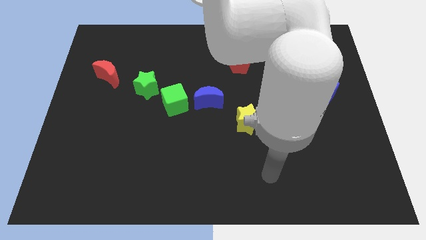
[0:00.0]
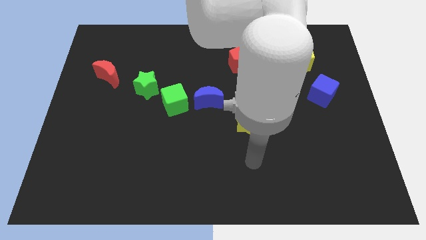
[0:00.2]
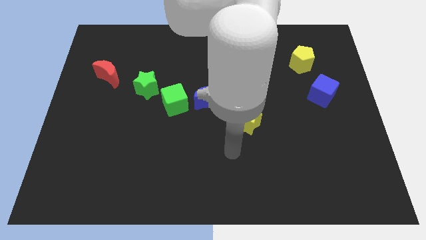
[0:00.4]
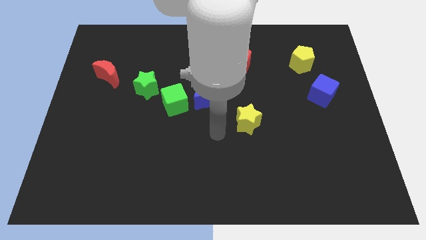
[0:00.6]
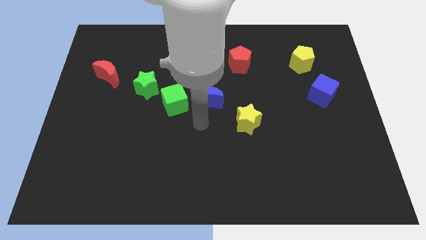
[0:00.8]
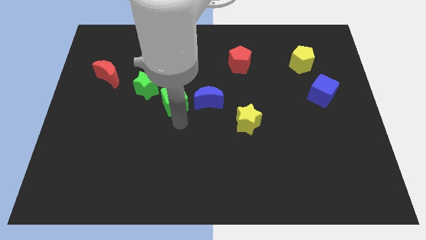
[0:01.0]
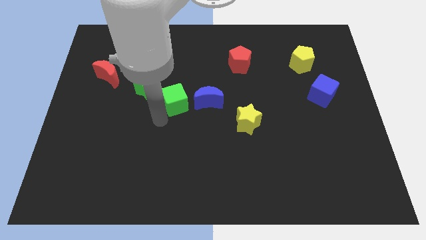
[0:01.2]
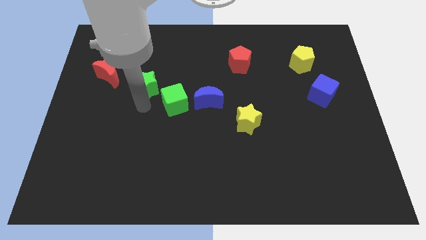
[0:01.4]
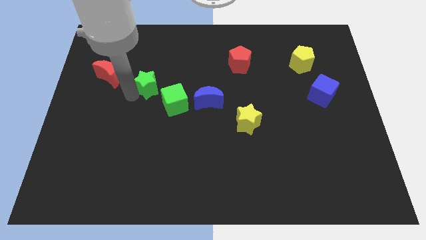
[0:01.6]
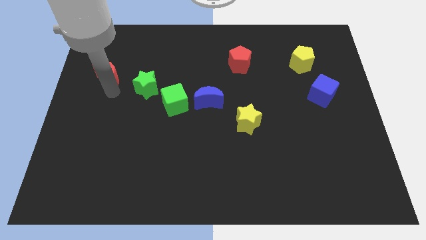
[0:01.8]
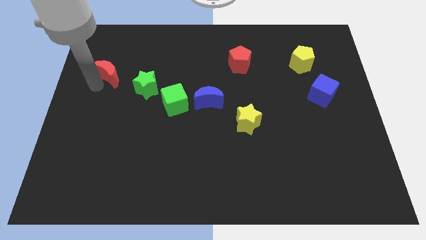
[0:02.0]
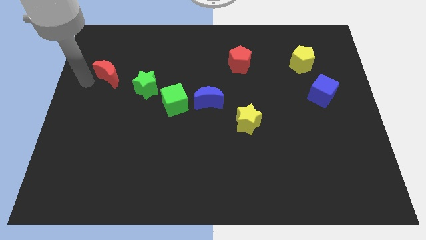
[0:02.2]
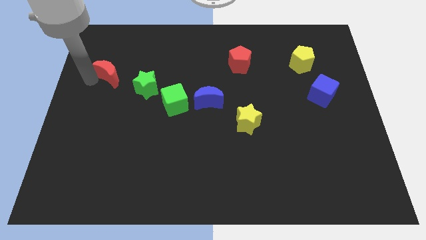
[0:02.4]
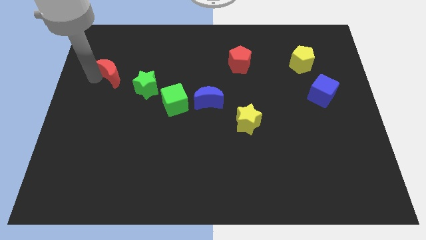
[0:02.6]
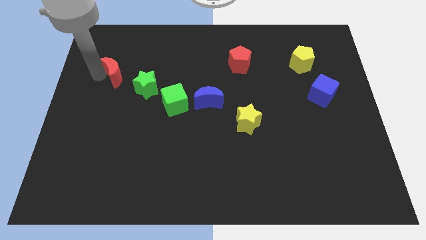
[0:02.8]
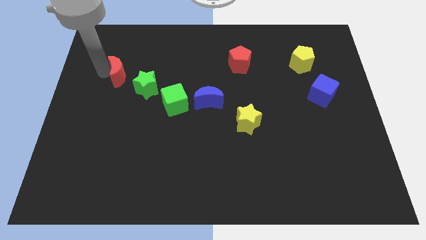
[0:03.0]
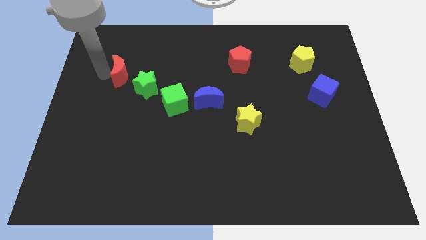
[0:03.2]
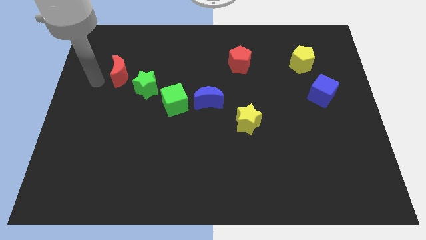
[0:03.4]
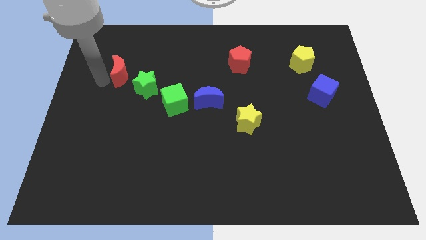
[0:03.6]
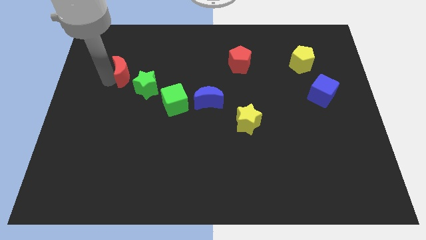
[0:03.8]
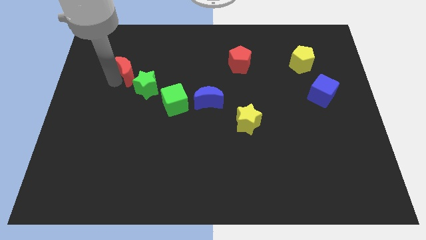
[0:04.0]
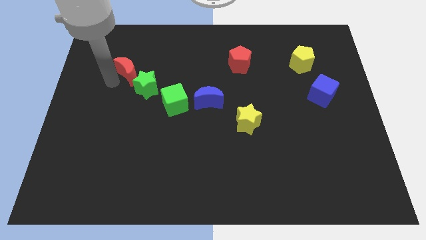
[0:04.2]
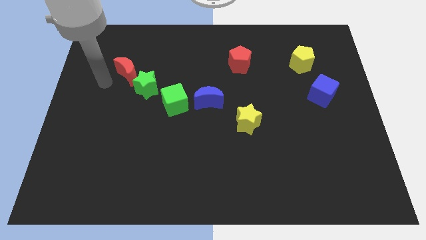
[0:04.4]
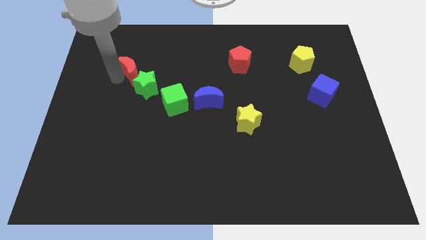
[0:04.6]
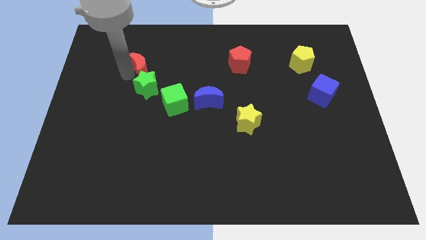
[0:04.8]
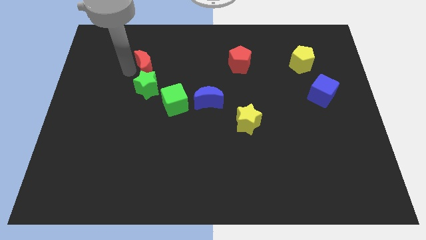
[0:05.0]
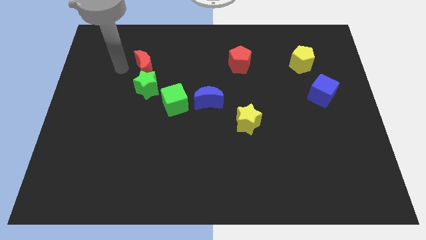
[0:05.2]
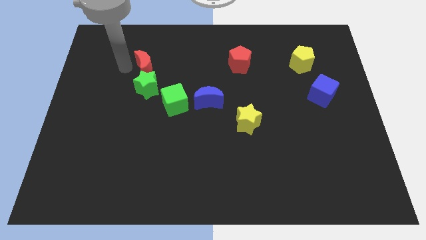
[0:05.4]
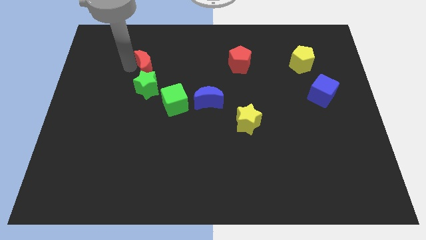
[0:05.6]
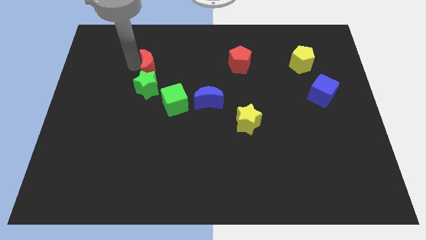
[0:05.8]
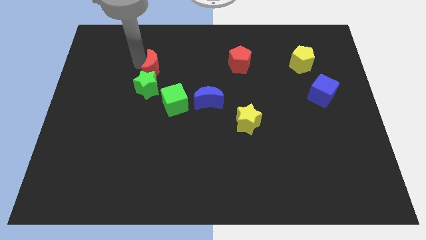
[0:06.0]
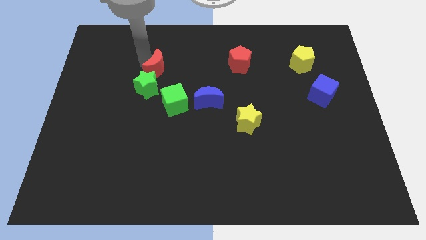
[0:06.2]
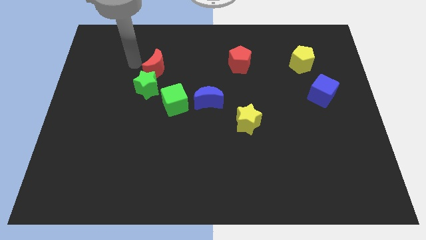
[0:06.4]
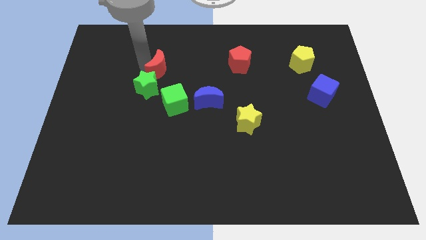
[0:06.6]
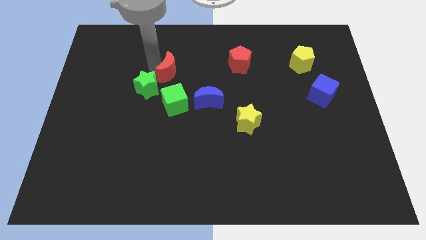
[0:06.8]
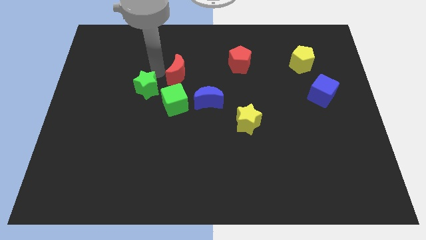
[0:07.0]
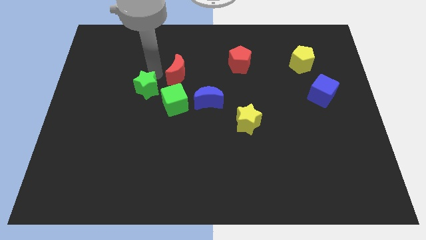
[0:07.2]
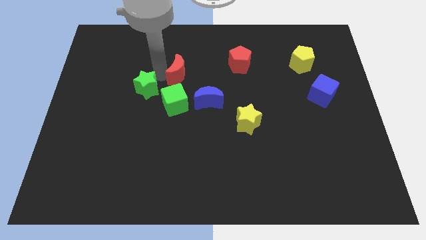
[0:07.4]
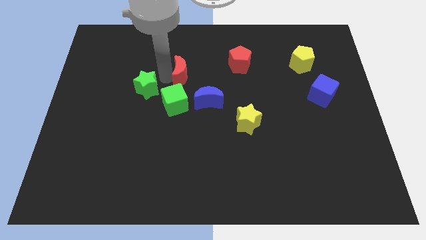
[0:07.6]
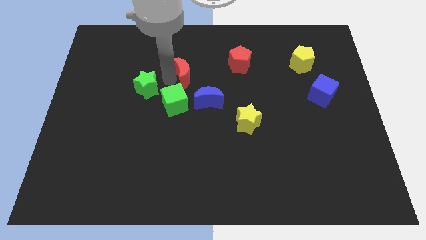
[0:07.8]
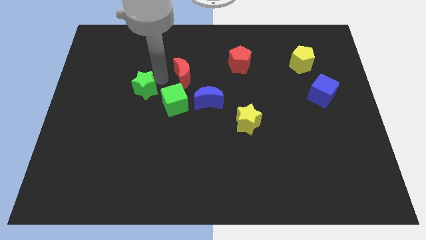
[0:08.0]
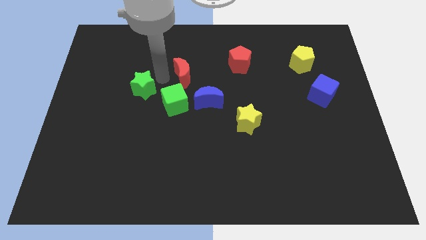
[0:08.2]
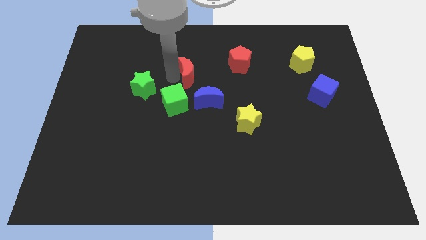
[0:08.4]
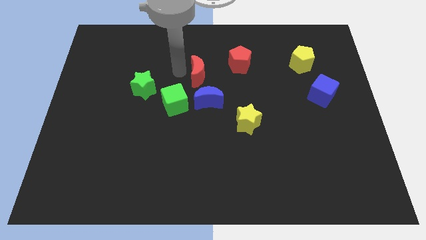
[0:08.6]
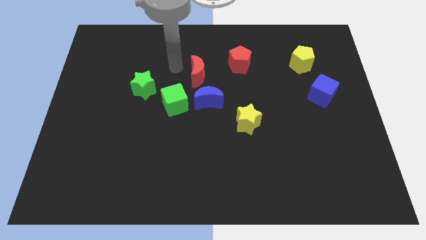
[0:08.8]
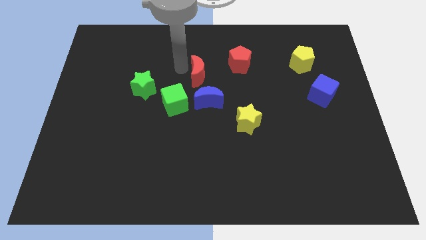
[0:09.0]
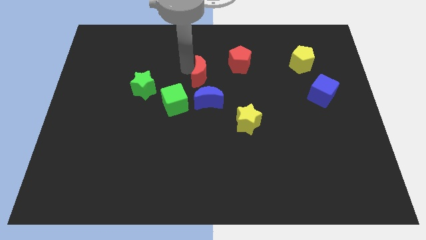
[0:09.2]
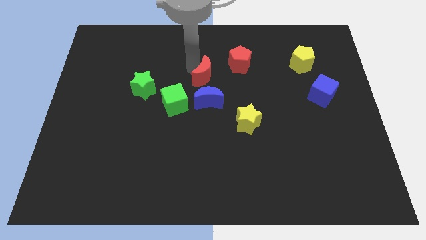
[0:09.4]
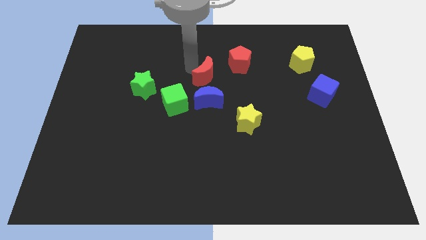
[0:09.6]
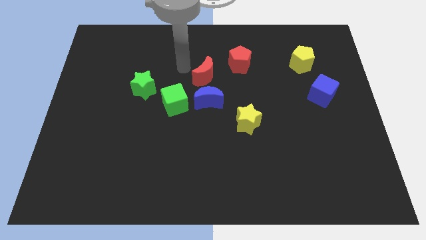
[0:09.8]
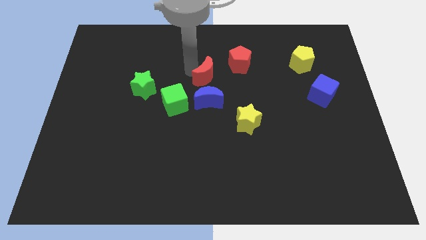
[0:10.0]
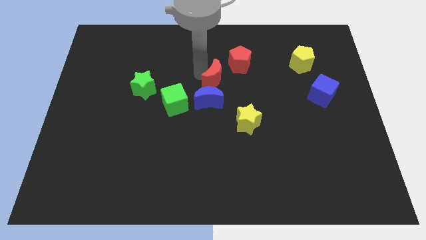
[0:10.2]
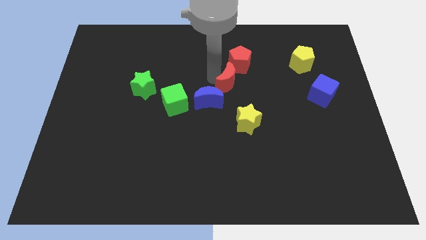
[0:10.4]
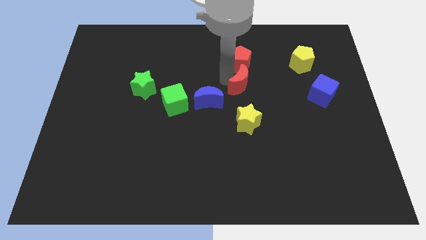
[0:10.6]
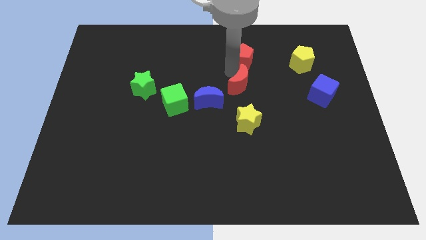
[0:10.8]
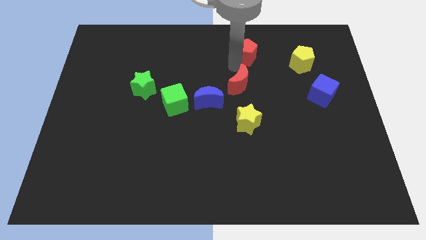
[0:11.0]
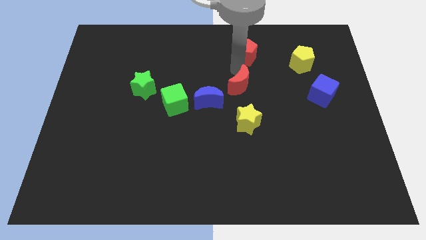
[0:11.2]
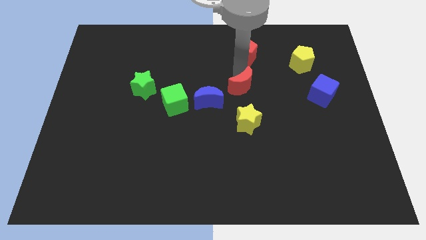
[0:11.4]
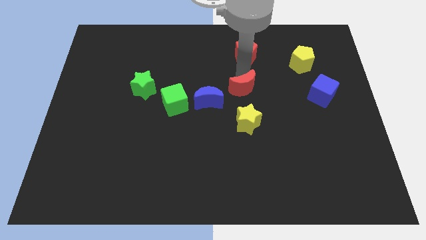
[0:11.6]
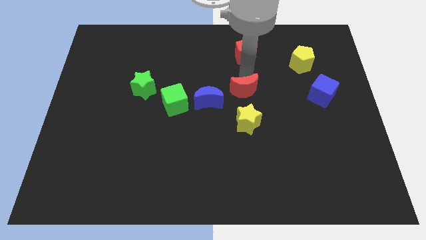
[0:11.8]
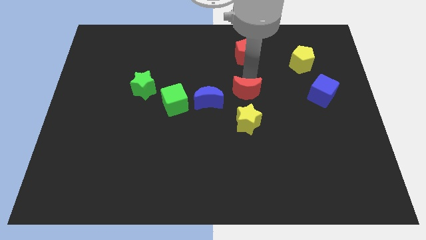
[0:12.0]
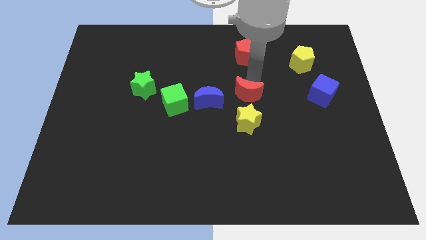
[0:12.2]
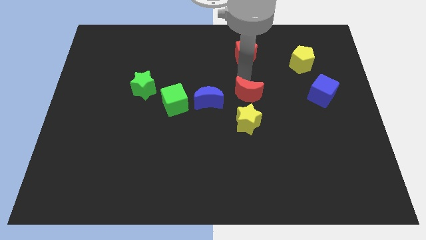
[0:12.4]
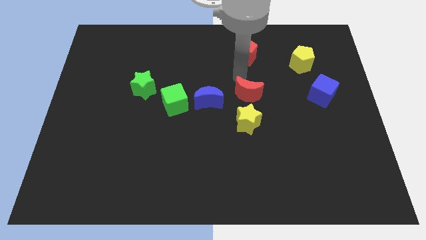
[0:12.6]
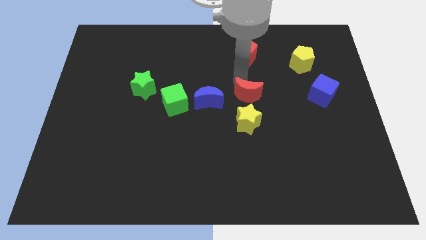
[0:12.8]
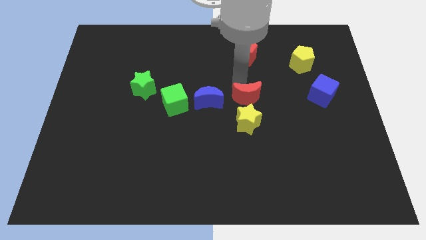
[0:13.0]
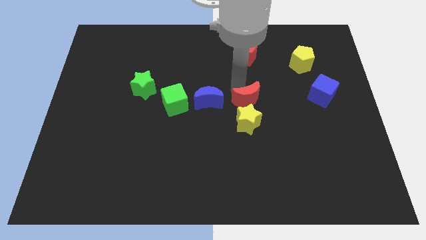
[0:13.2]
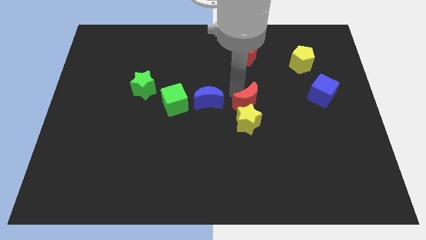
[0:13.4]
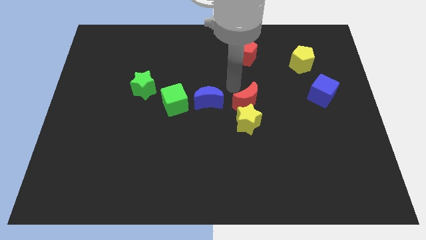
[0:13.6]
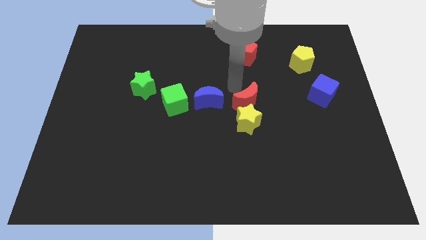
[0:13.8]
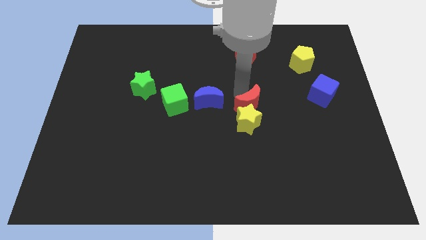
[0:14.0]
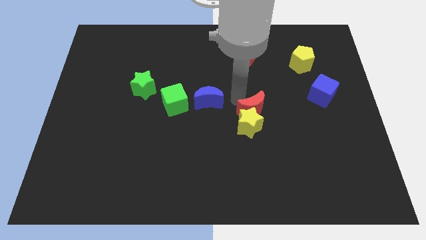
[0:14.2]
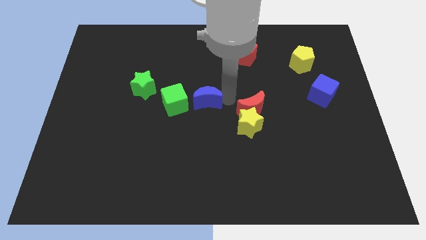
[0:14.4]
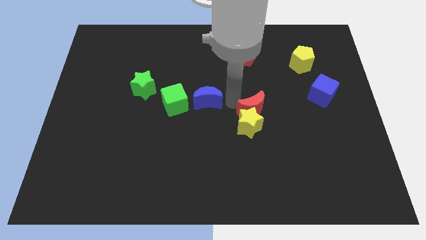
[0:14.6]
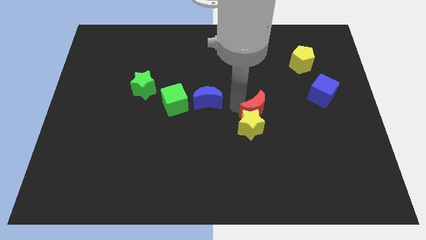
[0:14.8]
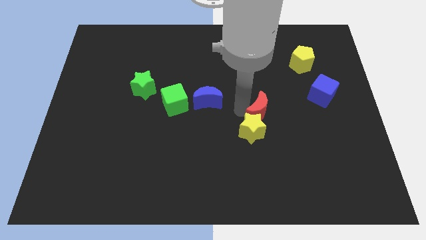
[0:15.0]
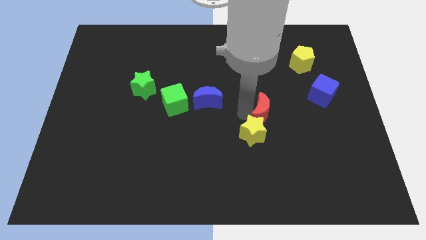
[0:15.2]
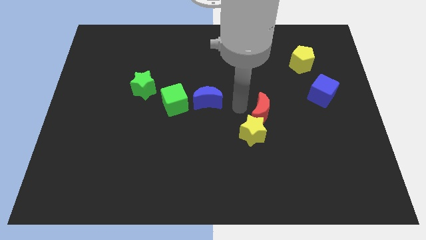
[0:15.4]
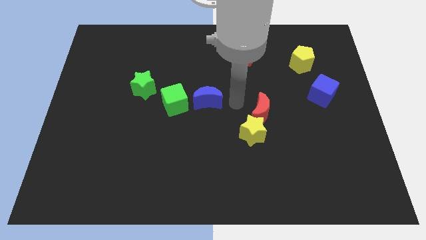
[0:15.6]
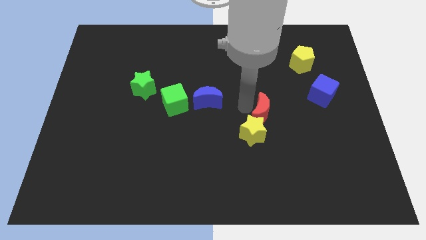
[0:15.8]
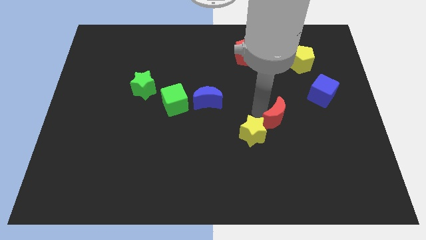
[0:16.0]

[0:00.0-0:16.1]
push the red moon to the right side of the yellow star
